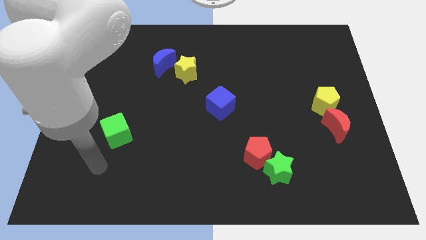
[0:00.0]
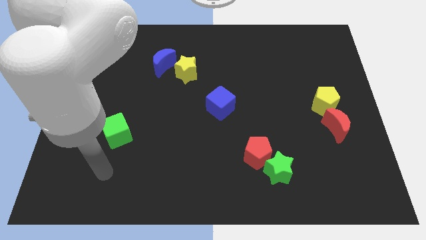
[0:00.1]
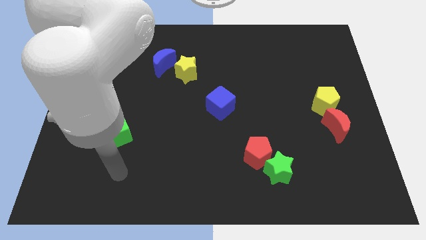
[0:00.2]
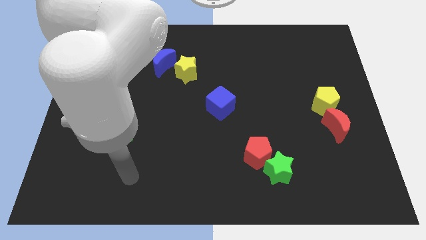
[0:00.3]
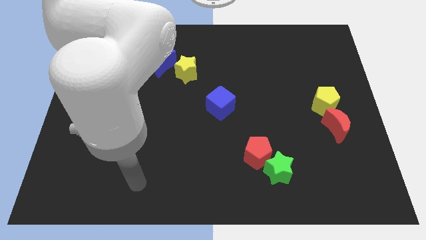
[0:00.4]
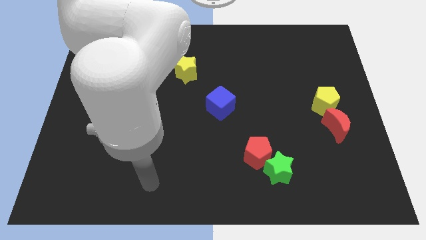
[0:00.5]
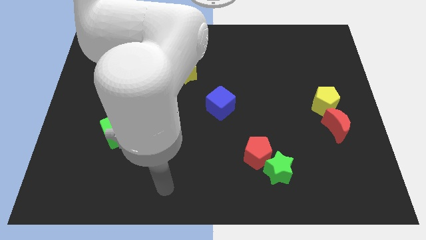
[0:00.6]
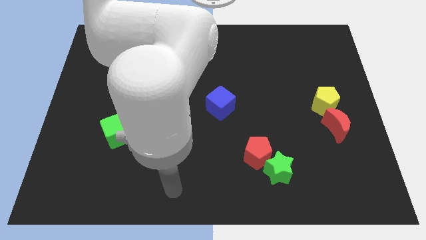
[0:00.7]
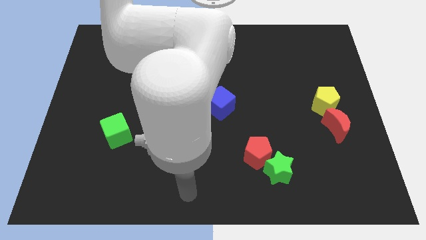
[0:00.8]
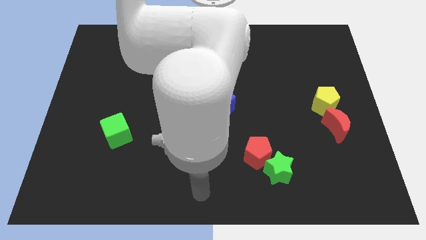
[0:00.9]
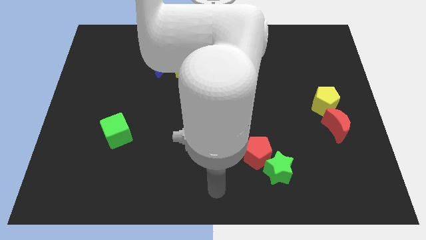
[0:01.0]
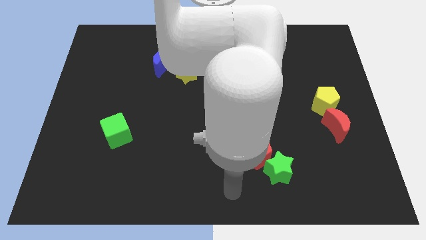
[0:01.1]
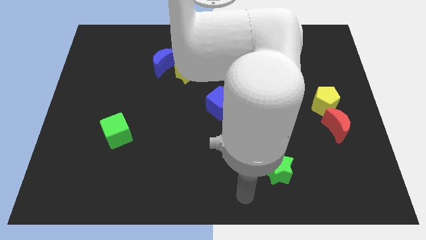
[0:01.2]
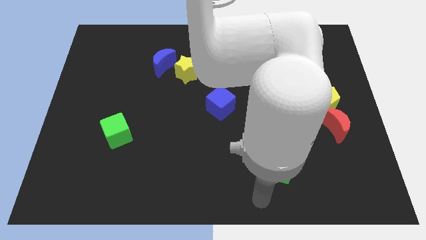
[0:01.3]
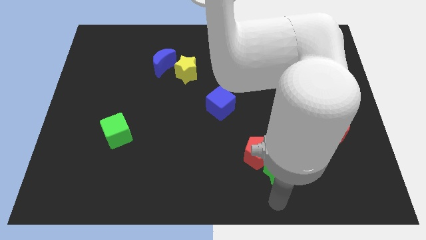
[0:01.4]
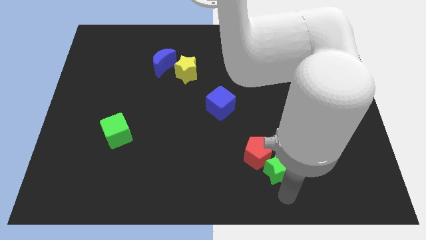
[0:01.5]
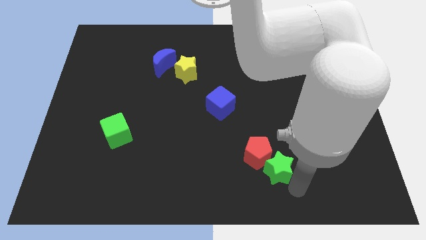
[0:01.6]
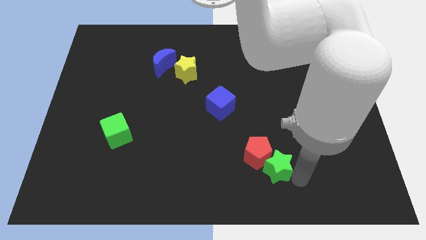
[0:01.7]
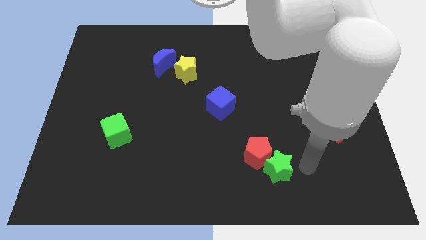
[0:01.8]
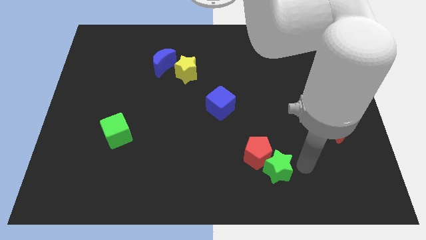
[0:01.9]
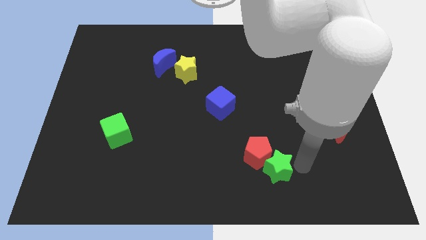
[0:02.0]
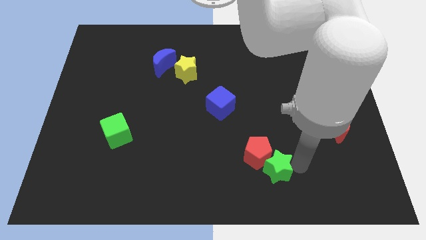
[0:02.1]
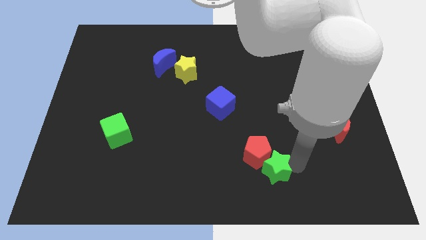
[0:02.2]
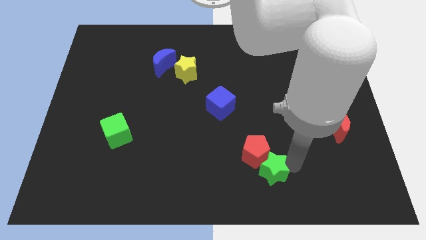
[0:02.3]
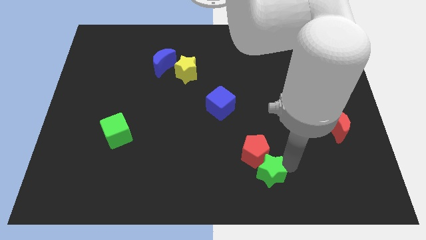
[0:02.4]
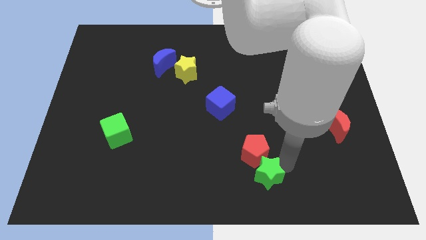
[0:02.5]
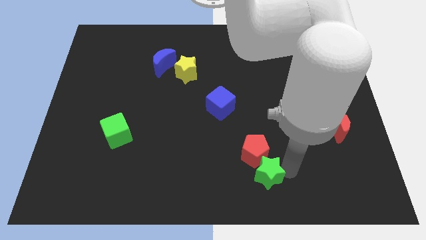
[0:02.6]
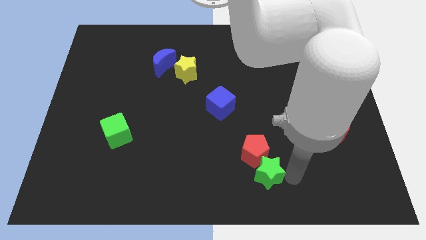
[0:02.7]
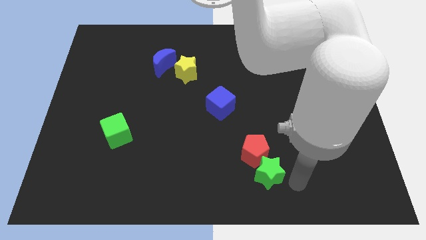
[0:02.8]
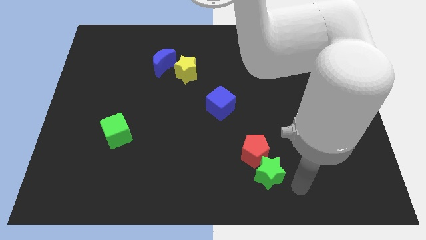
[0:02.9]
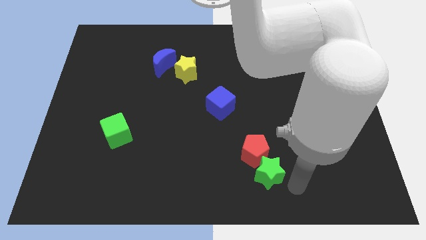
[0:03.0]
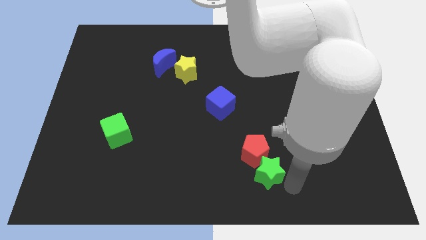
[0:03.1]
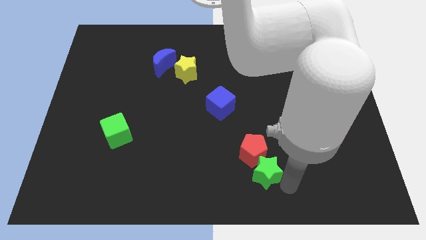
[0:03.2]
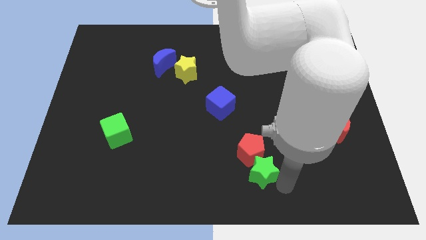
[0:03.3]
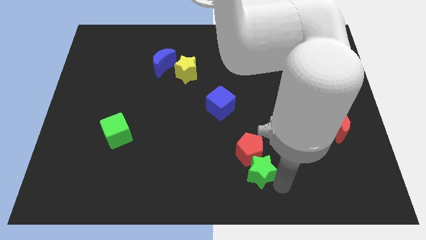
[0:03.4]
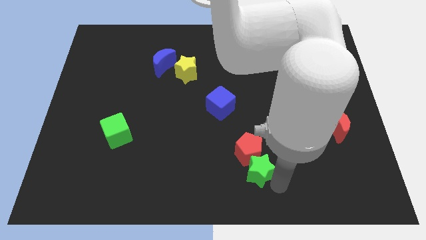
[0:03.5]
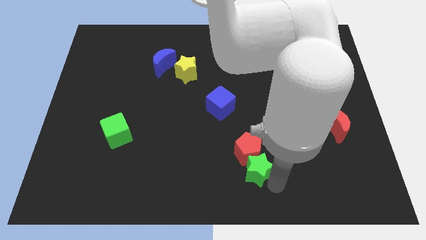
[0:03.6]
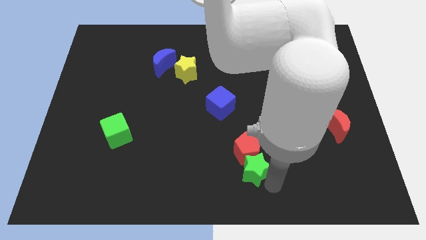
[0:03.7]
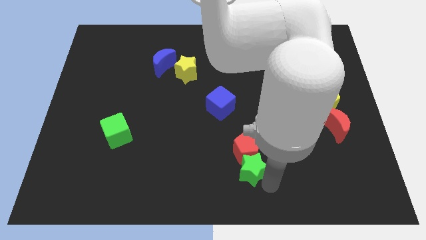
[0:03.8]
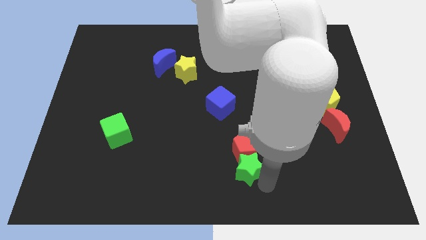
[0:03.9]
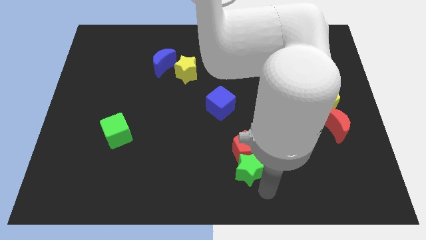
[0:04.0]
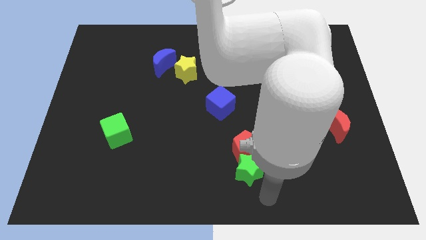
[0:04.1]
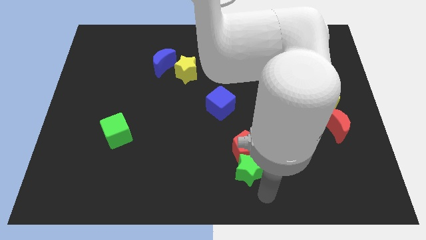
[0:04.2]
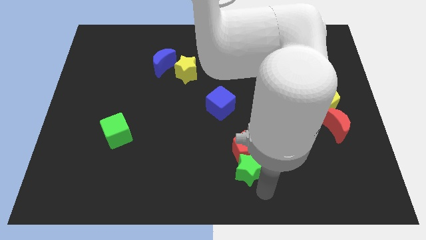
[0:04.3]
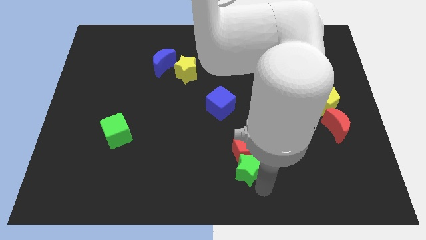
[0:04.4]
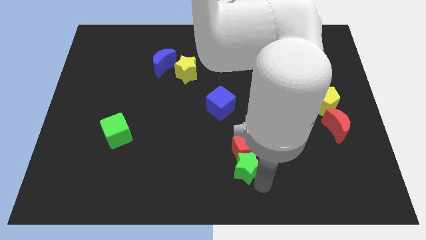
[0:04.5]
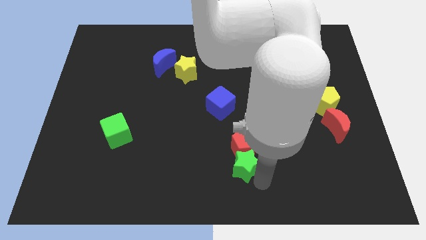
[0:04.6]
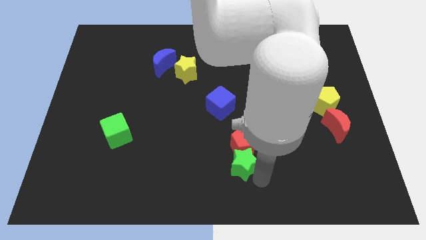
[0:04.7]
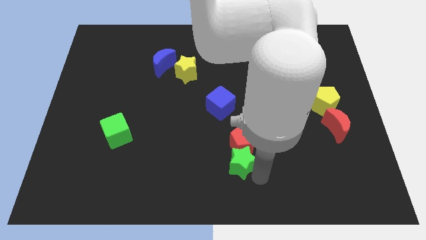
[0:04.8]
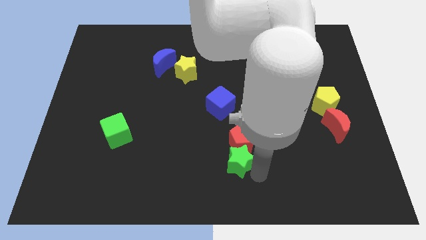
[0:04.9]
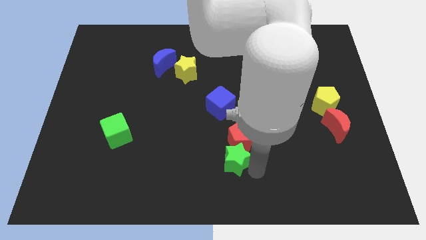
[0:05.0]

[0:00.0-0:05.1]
push the green star slightly up and to the left diagonally

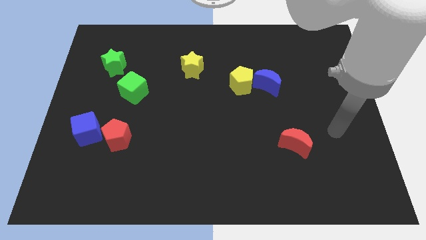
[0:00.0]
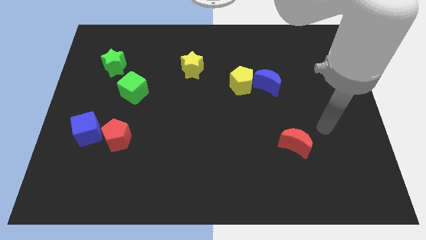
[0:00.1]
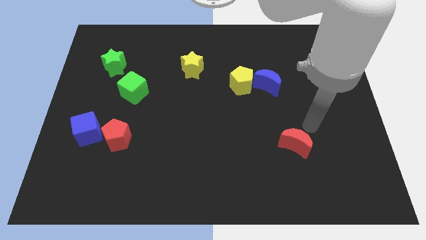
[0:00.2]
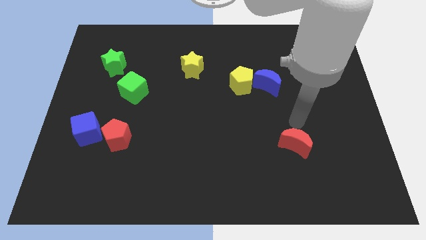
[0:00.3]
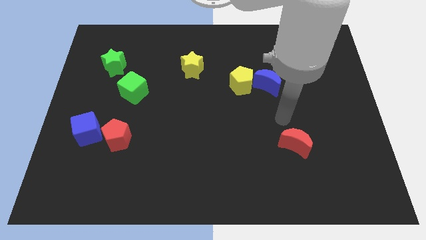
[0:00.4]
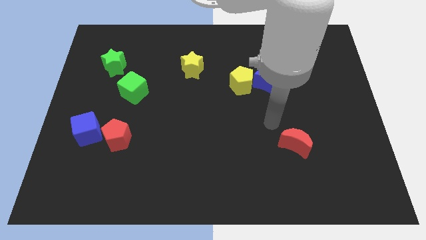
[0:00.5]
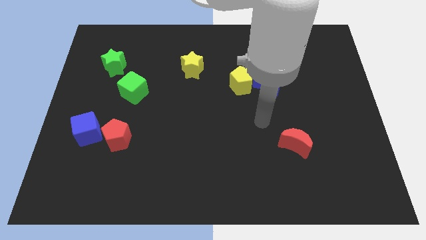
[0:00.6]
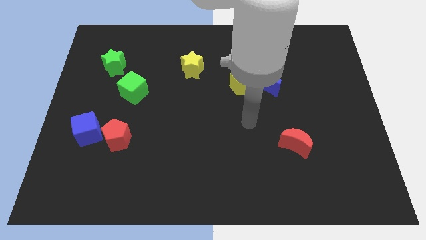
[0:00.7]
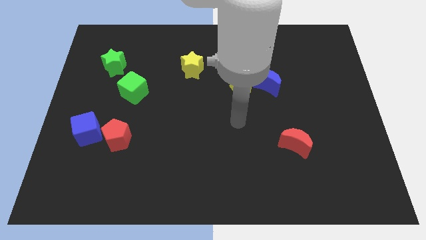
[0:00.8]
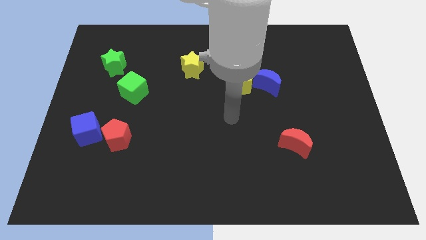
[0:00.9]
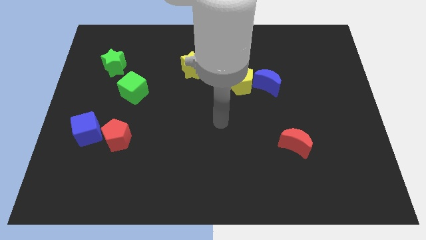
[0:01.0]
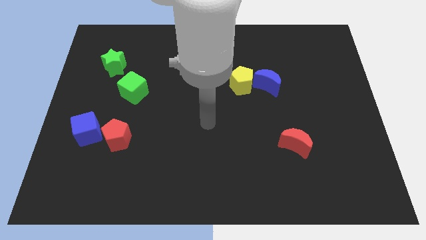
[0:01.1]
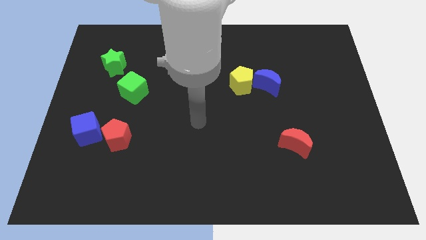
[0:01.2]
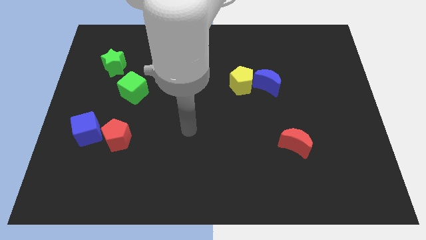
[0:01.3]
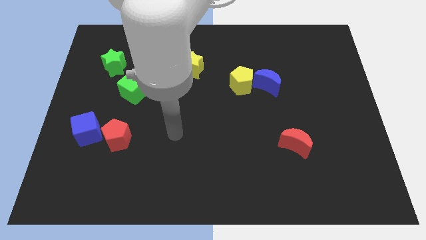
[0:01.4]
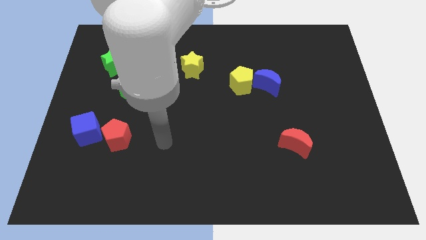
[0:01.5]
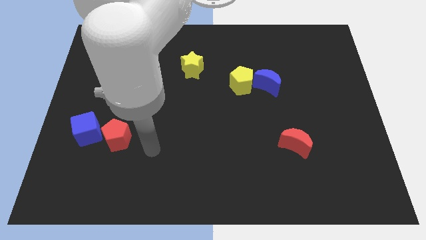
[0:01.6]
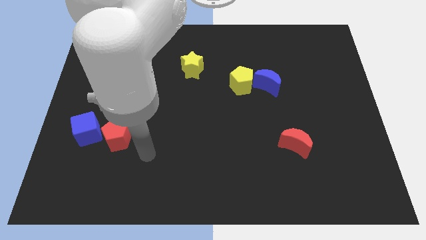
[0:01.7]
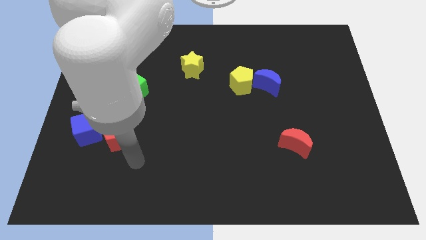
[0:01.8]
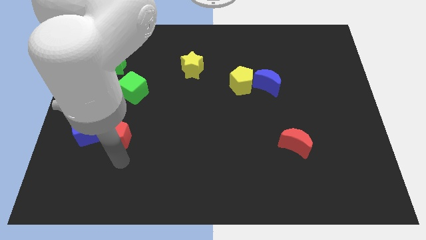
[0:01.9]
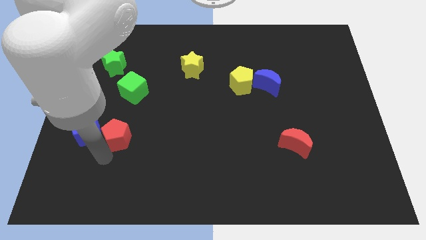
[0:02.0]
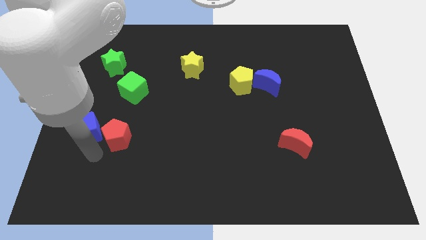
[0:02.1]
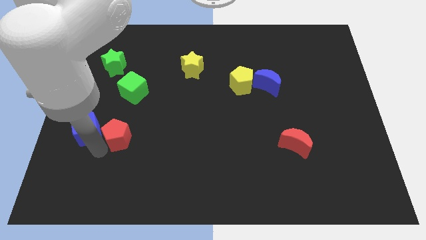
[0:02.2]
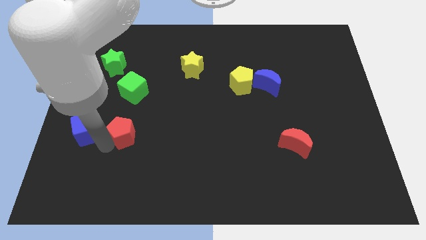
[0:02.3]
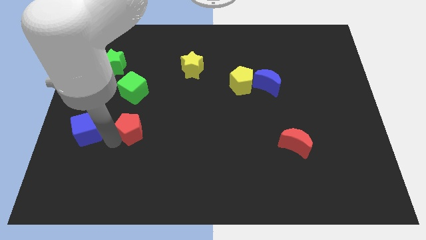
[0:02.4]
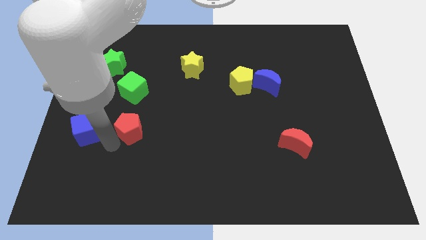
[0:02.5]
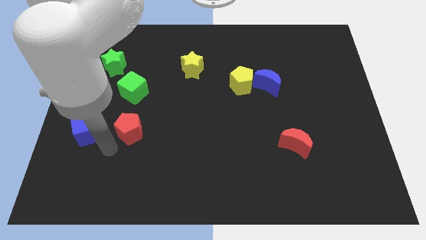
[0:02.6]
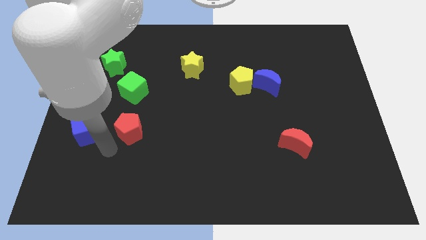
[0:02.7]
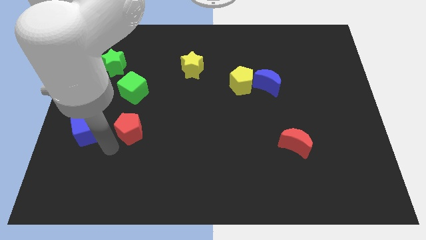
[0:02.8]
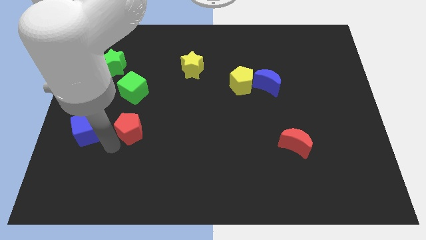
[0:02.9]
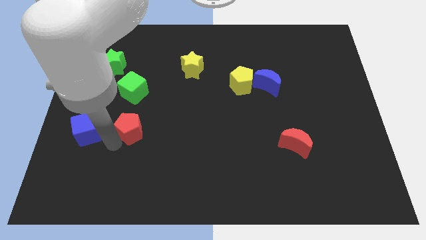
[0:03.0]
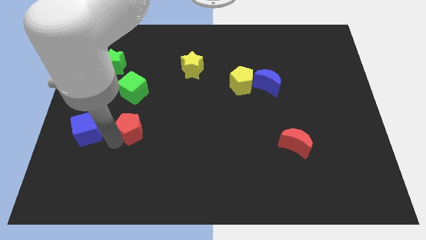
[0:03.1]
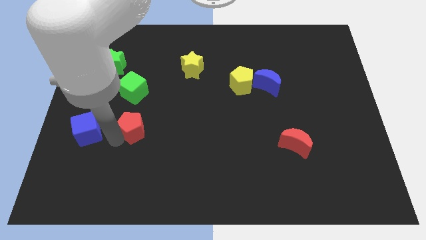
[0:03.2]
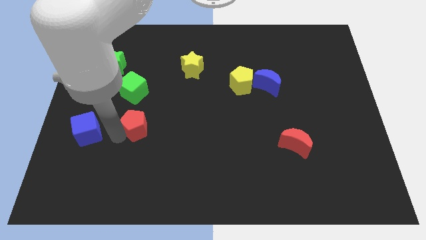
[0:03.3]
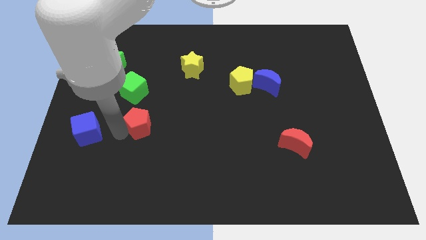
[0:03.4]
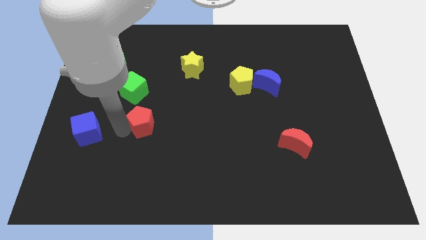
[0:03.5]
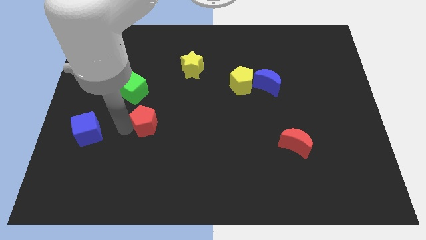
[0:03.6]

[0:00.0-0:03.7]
slightly push the red pentagon up and to the right
